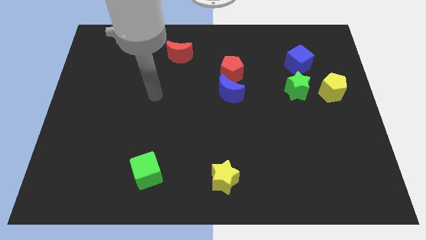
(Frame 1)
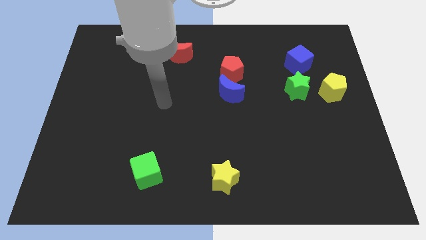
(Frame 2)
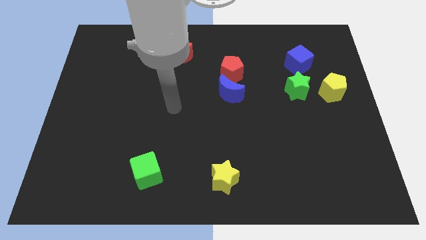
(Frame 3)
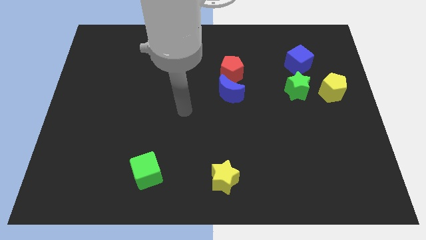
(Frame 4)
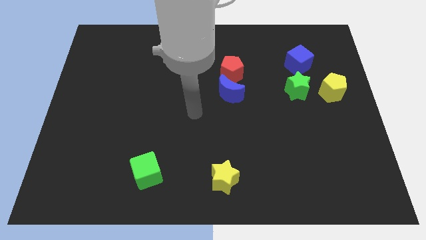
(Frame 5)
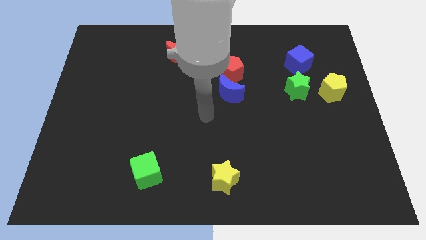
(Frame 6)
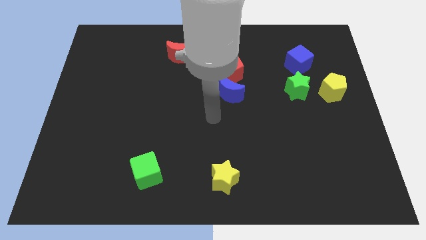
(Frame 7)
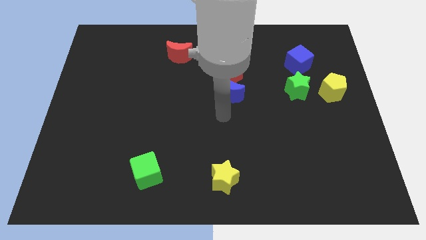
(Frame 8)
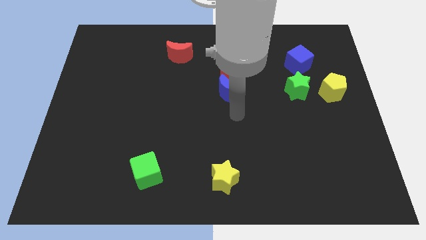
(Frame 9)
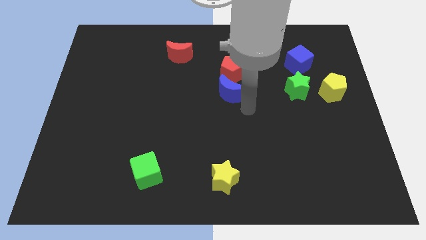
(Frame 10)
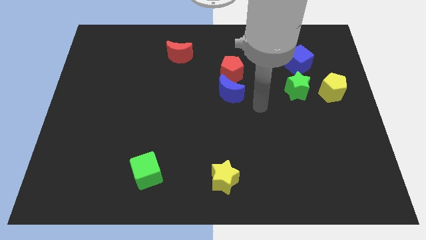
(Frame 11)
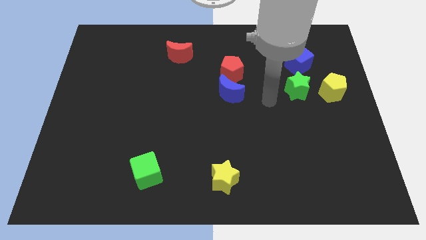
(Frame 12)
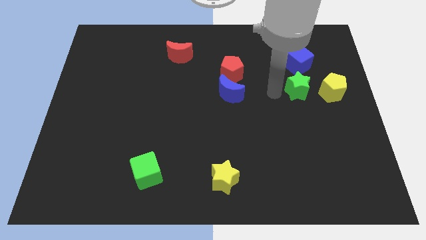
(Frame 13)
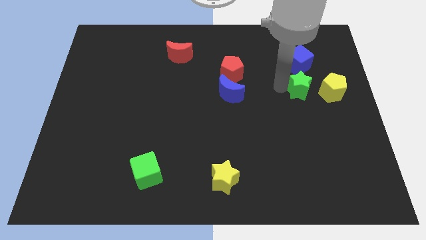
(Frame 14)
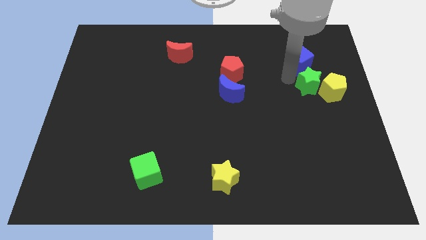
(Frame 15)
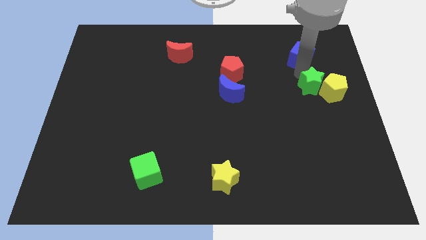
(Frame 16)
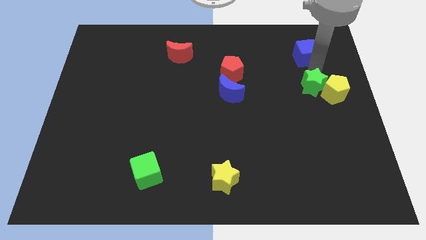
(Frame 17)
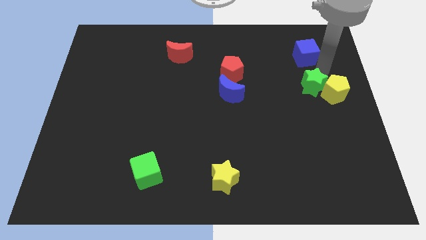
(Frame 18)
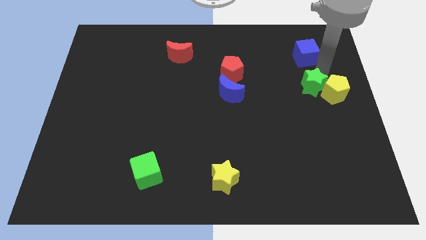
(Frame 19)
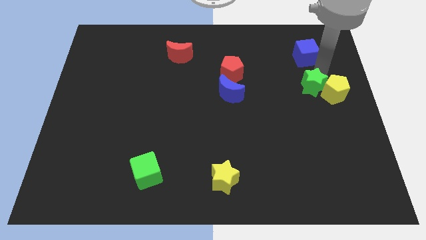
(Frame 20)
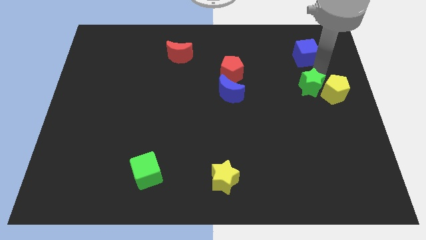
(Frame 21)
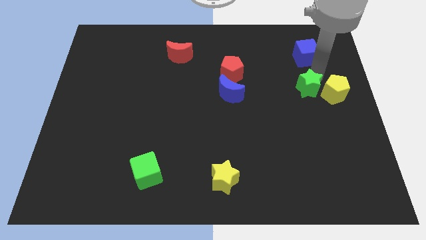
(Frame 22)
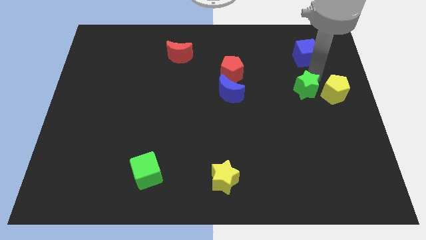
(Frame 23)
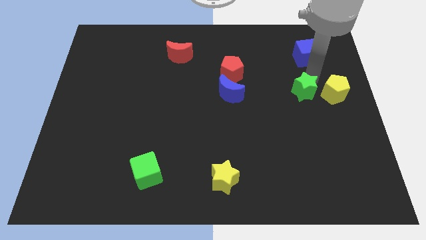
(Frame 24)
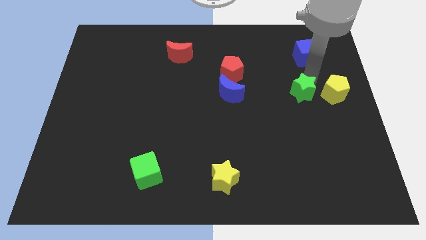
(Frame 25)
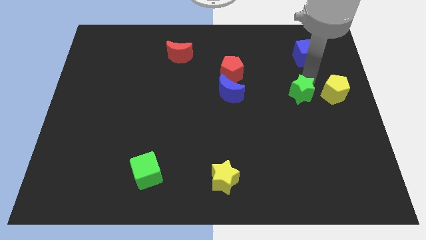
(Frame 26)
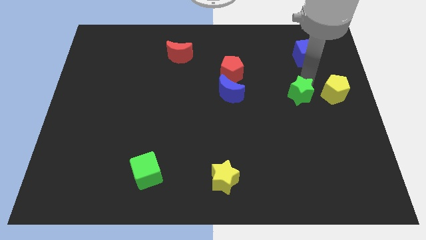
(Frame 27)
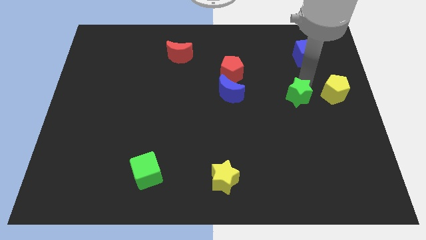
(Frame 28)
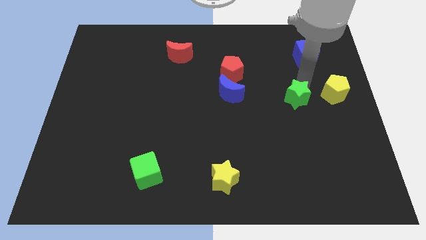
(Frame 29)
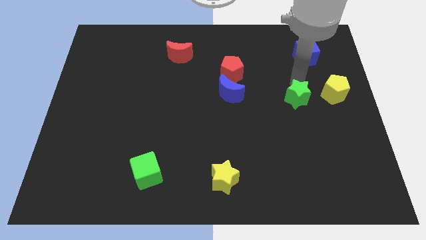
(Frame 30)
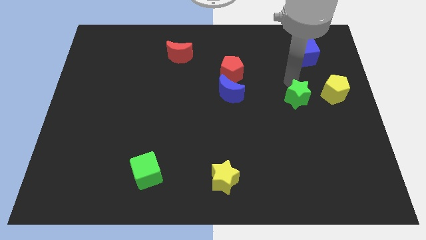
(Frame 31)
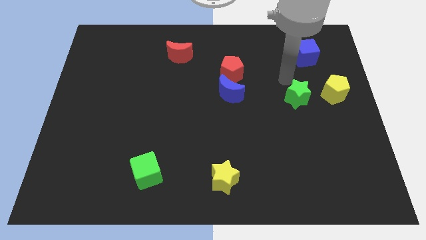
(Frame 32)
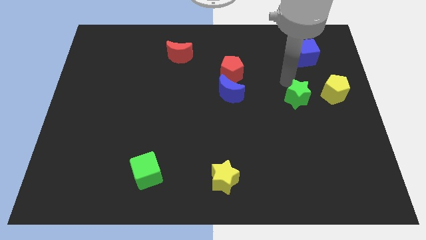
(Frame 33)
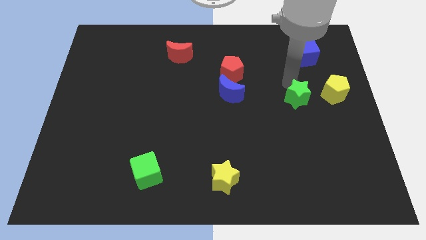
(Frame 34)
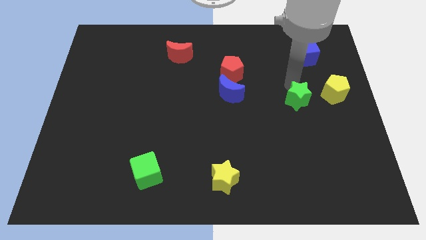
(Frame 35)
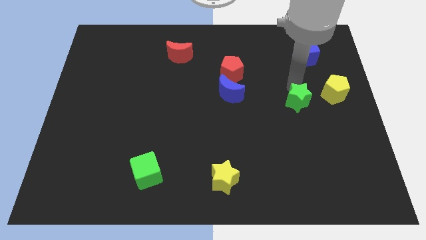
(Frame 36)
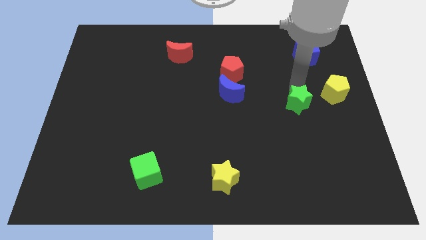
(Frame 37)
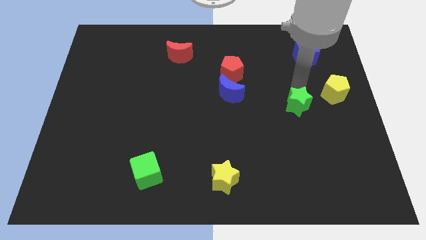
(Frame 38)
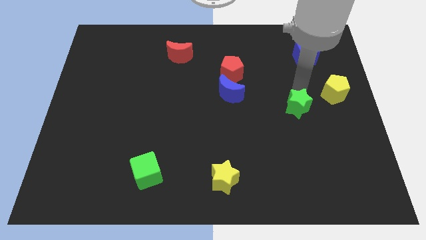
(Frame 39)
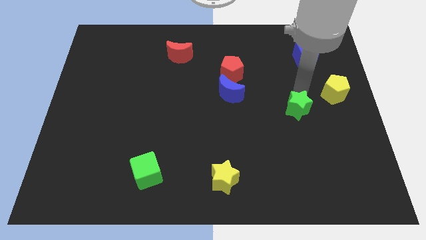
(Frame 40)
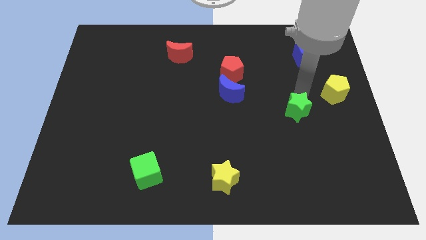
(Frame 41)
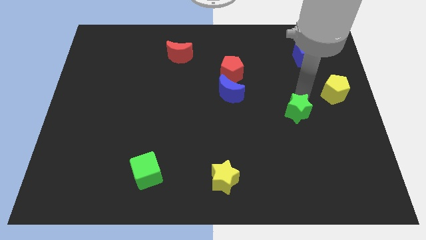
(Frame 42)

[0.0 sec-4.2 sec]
slide the green star downwards a little

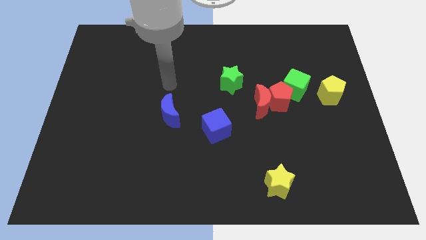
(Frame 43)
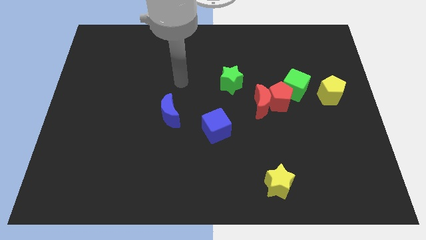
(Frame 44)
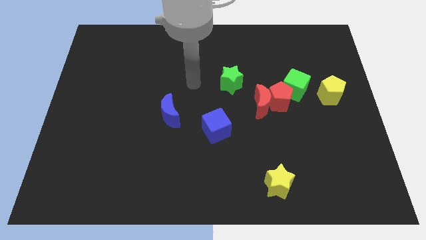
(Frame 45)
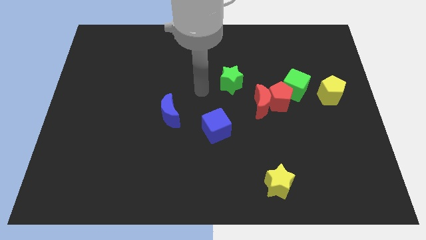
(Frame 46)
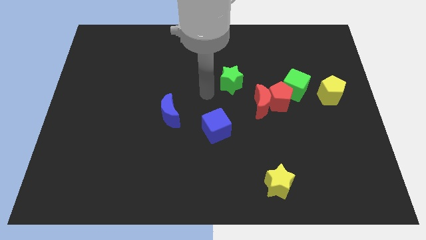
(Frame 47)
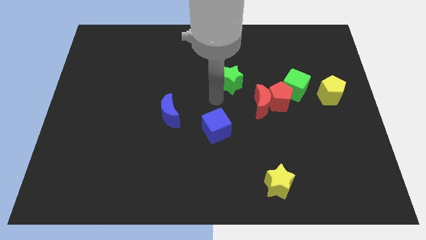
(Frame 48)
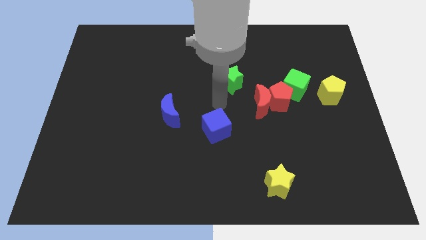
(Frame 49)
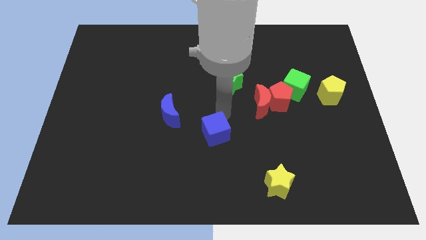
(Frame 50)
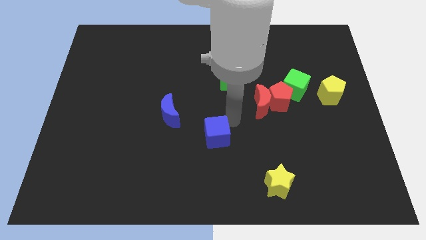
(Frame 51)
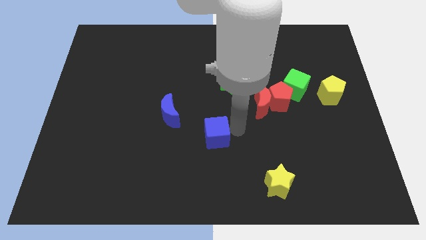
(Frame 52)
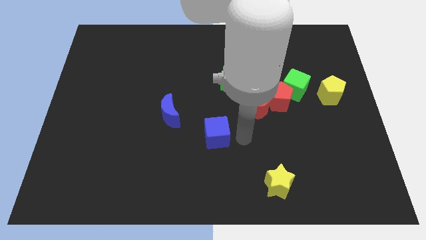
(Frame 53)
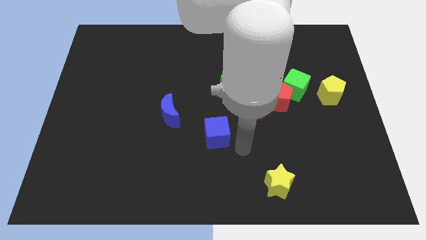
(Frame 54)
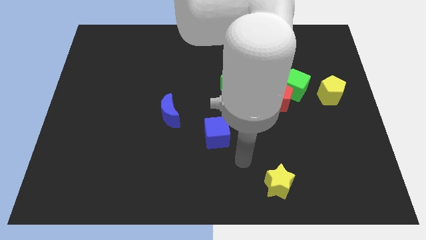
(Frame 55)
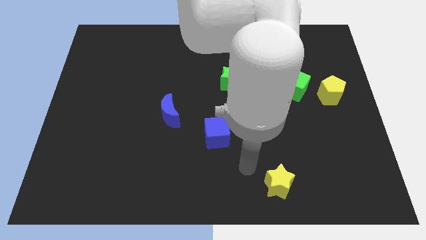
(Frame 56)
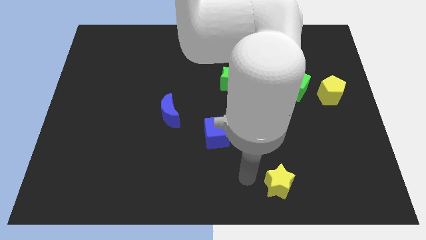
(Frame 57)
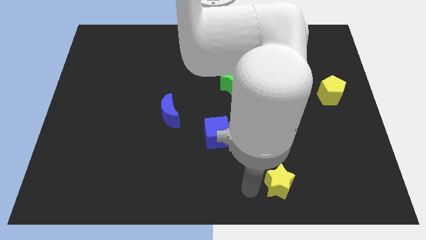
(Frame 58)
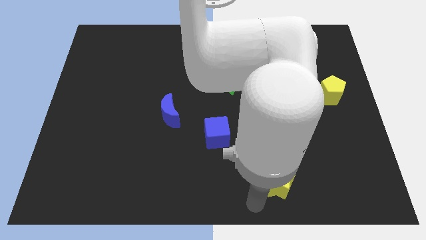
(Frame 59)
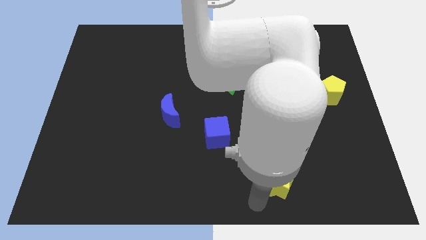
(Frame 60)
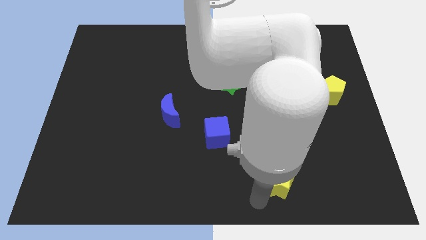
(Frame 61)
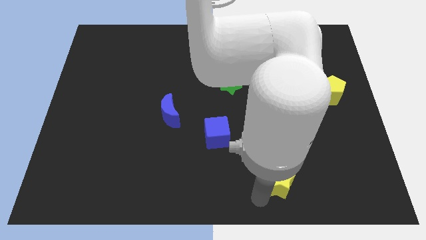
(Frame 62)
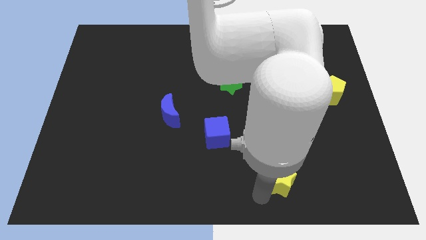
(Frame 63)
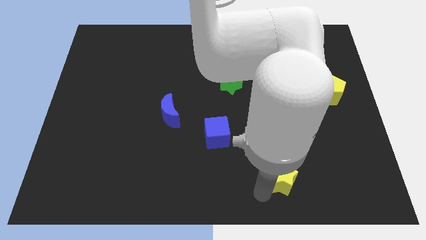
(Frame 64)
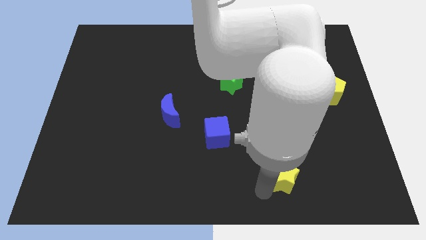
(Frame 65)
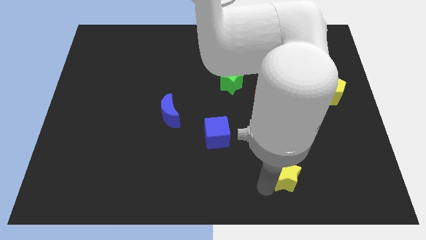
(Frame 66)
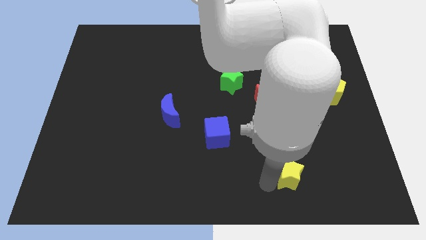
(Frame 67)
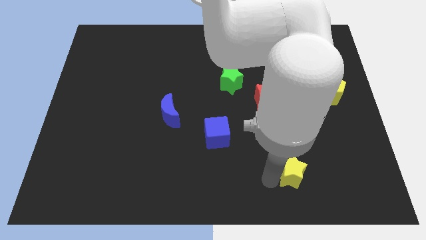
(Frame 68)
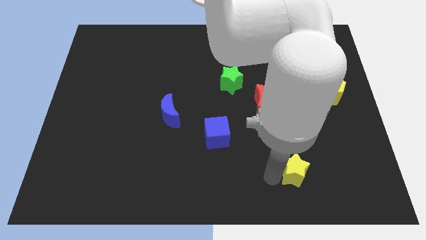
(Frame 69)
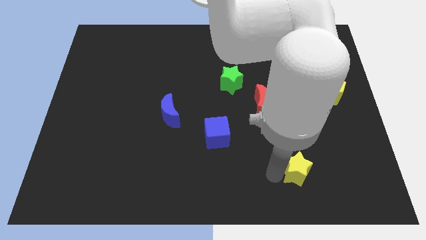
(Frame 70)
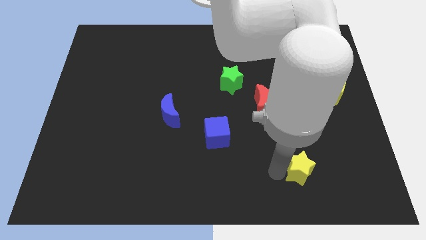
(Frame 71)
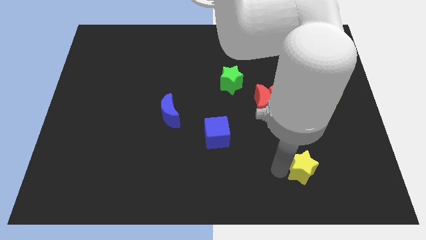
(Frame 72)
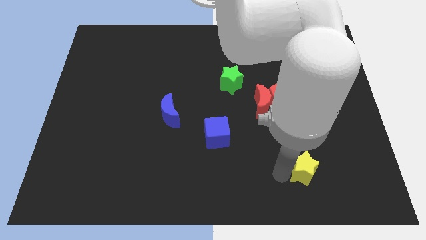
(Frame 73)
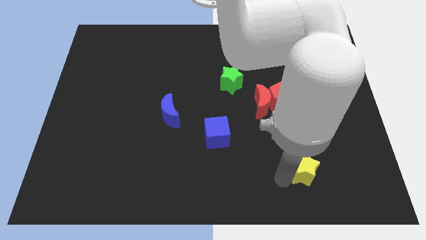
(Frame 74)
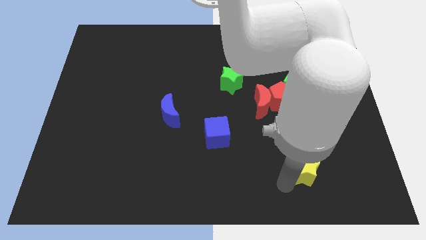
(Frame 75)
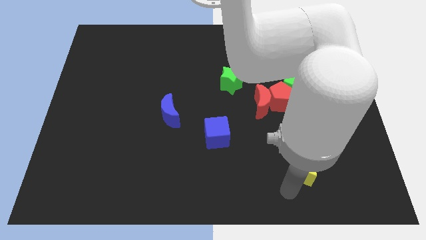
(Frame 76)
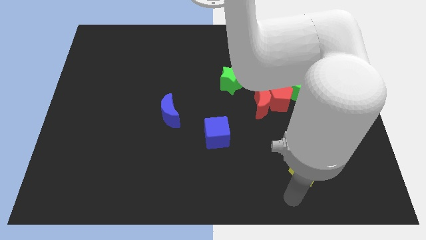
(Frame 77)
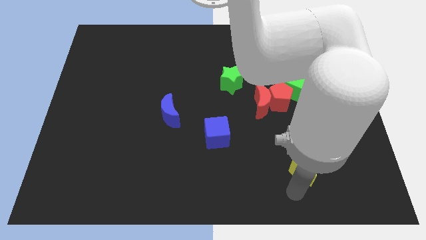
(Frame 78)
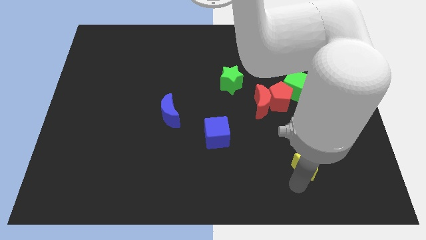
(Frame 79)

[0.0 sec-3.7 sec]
push the yellow star diagonally up and to the right slightly
